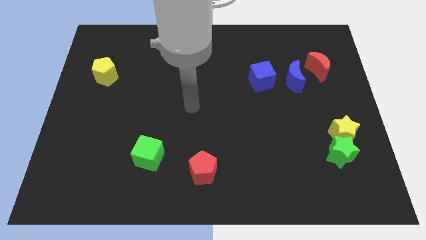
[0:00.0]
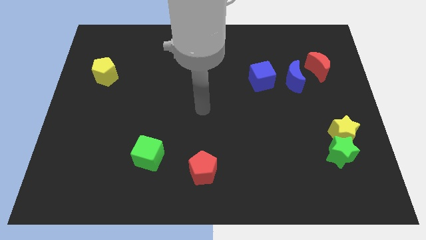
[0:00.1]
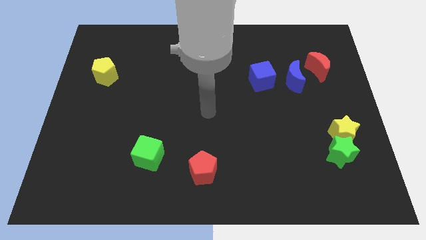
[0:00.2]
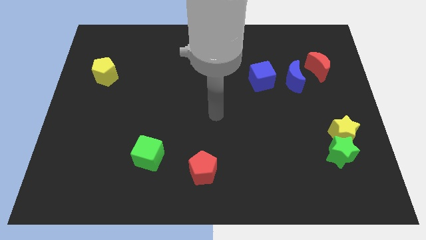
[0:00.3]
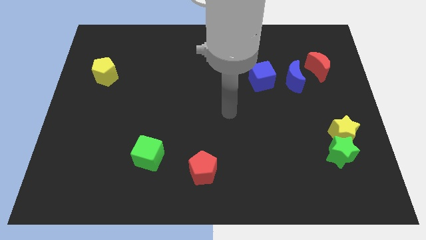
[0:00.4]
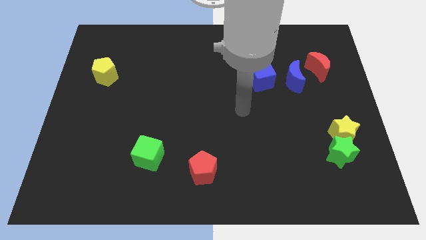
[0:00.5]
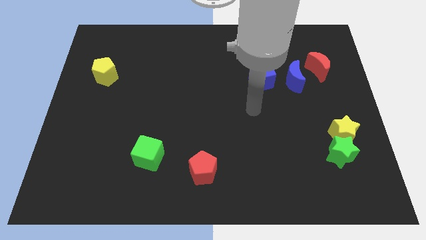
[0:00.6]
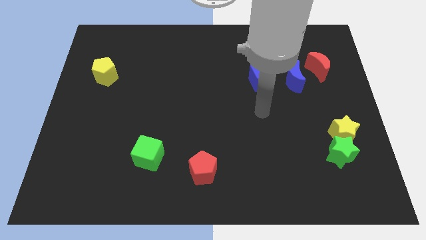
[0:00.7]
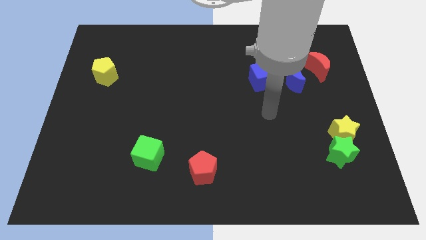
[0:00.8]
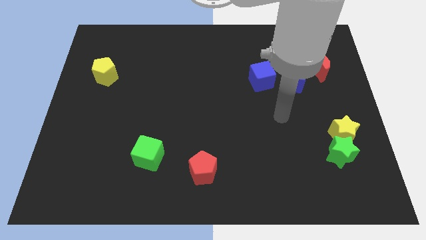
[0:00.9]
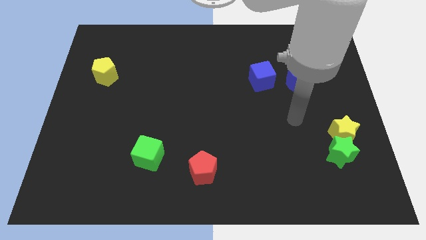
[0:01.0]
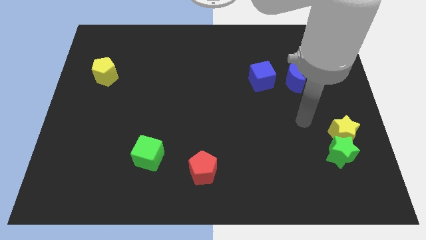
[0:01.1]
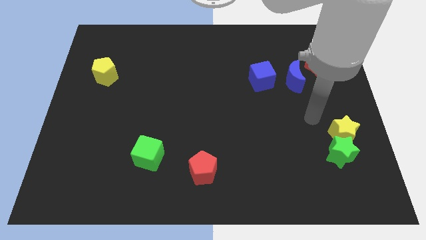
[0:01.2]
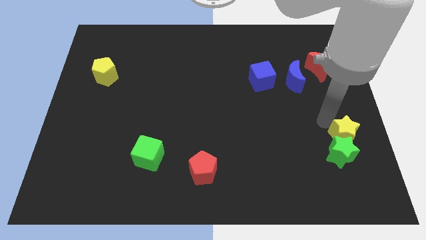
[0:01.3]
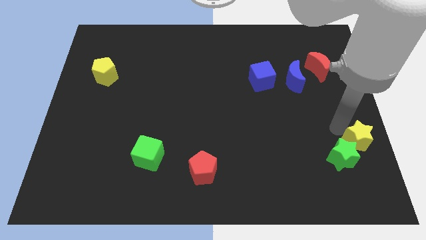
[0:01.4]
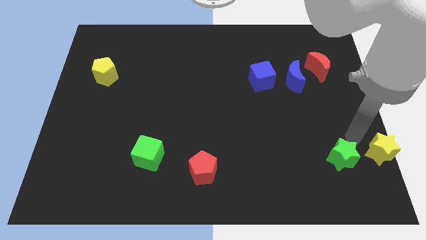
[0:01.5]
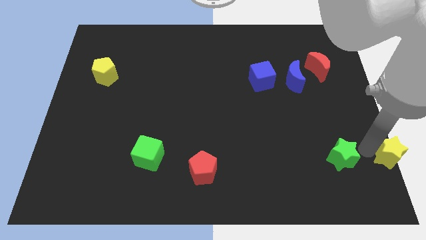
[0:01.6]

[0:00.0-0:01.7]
separate the green star from the yellow star

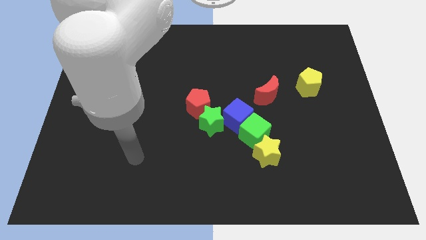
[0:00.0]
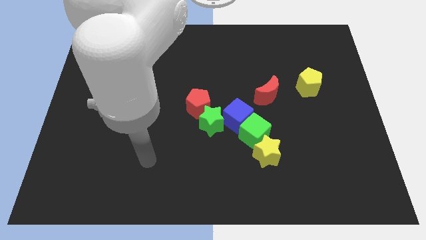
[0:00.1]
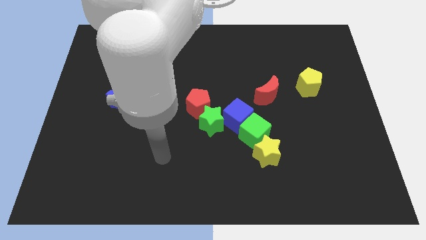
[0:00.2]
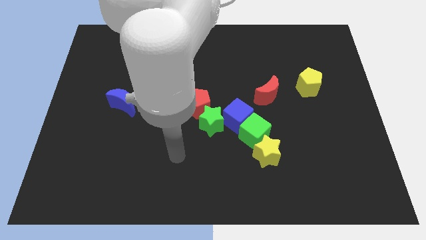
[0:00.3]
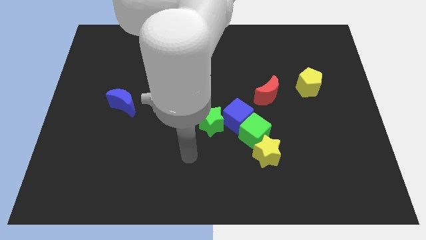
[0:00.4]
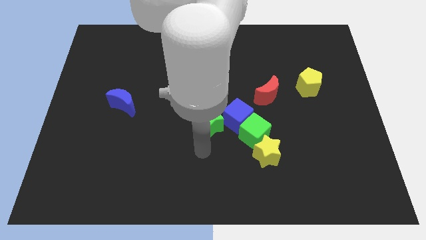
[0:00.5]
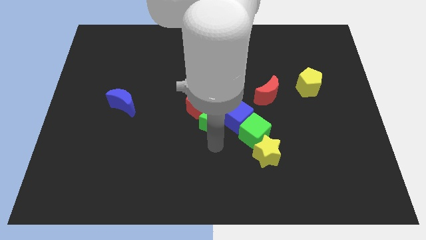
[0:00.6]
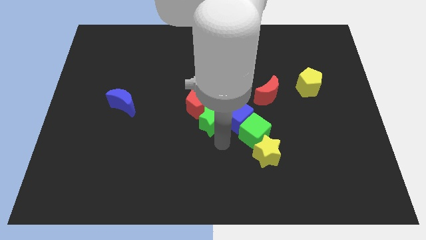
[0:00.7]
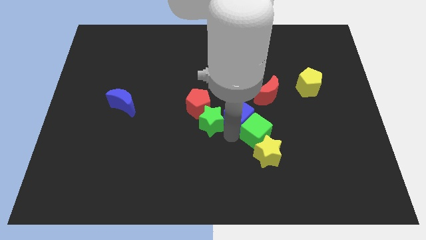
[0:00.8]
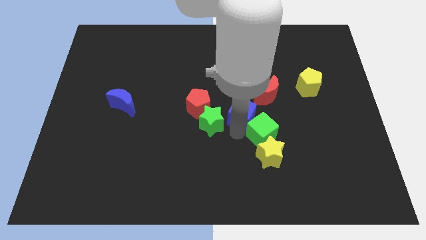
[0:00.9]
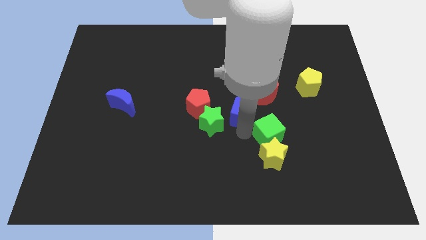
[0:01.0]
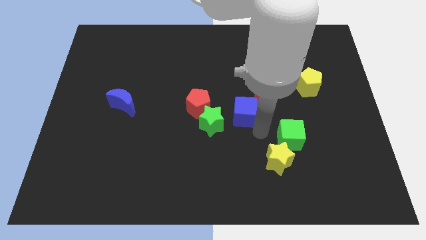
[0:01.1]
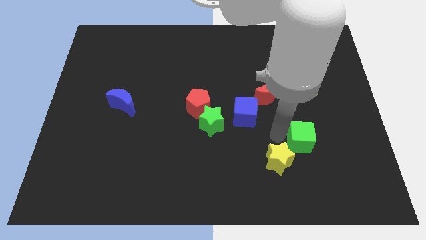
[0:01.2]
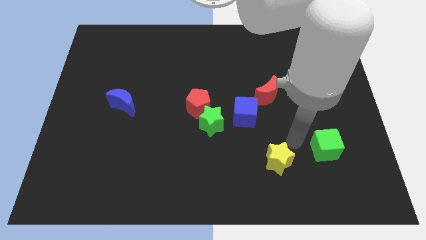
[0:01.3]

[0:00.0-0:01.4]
pull the yellow star apart from the green cube

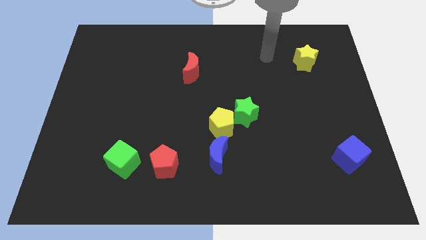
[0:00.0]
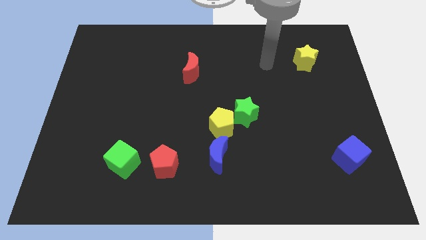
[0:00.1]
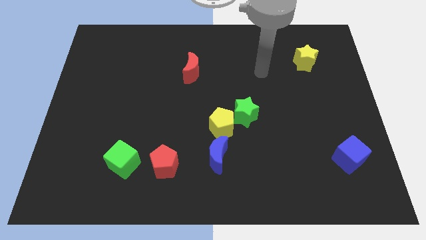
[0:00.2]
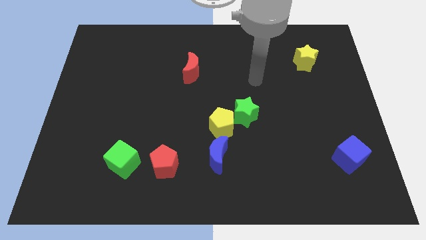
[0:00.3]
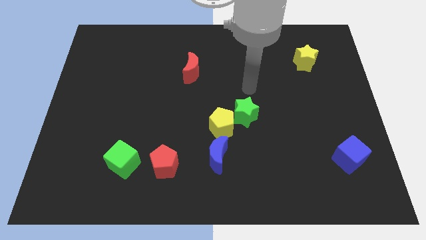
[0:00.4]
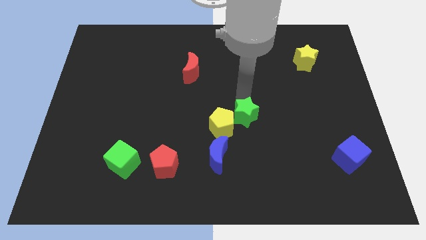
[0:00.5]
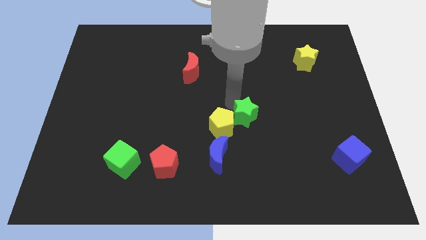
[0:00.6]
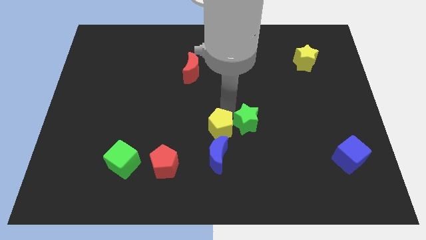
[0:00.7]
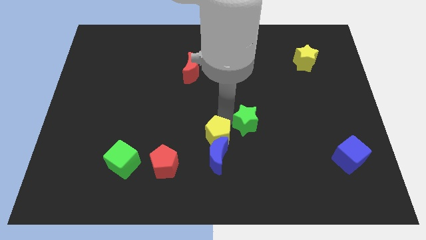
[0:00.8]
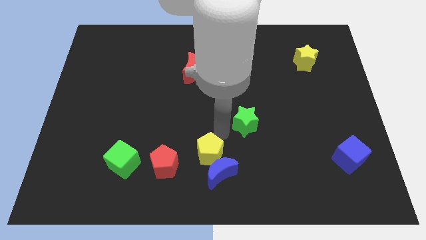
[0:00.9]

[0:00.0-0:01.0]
move the green star away from the yellow pentagon

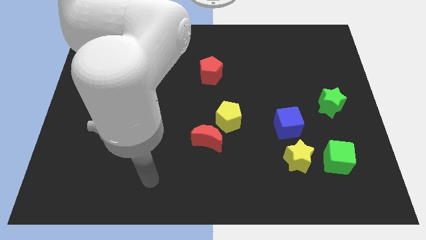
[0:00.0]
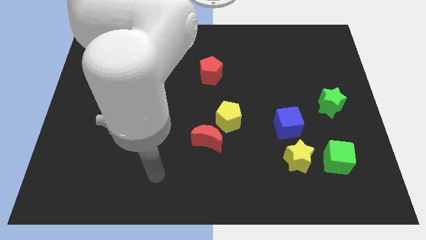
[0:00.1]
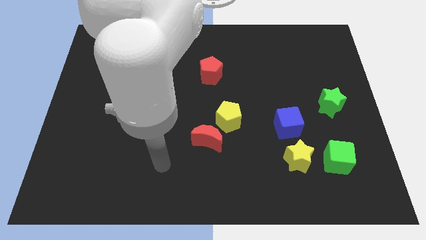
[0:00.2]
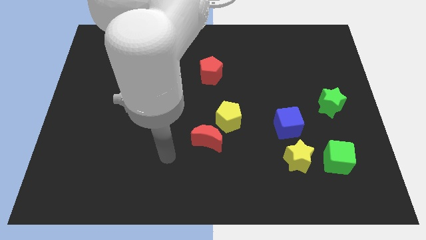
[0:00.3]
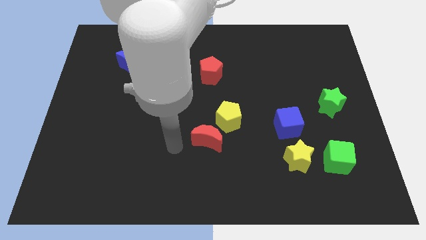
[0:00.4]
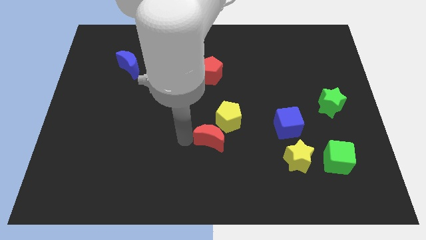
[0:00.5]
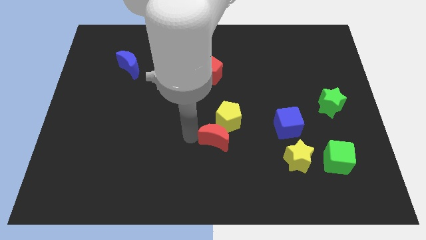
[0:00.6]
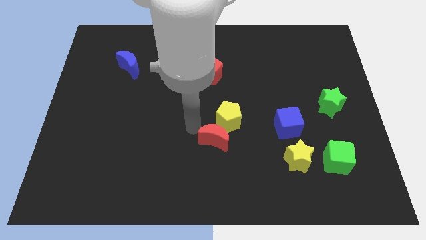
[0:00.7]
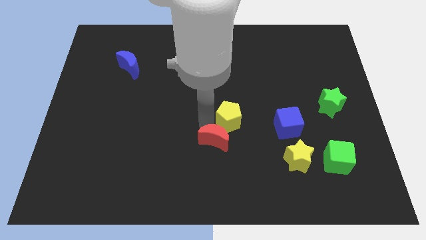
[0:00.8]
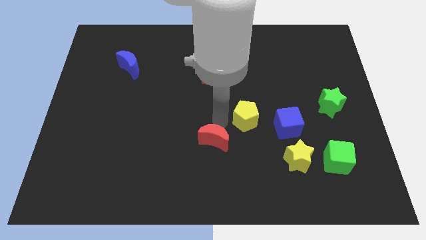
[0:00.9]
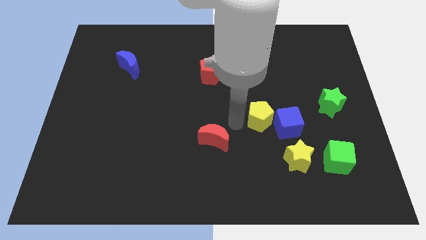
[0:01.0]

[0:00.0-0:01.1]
move the red moon away from the yellow pentagon

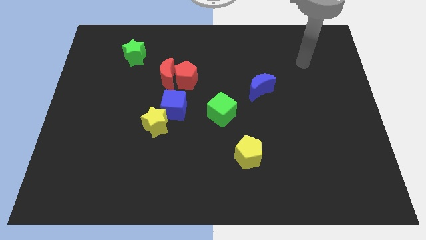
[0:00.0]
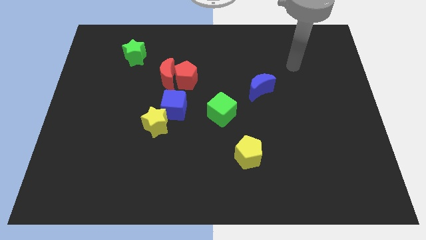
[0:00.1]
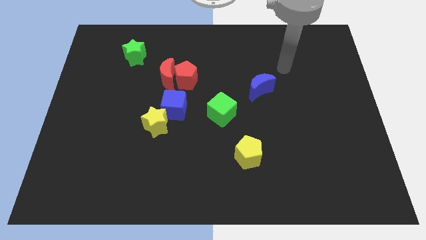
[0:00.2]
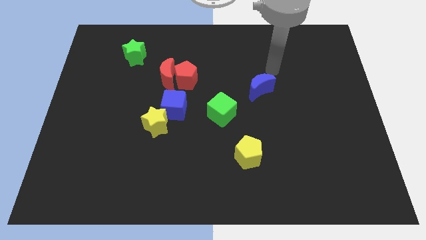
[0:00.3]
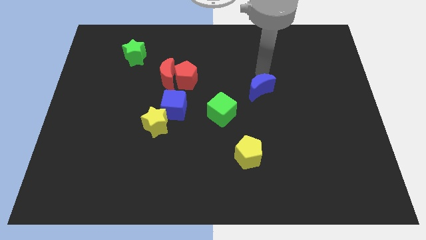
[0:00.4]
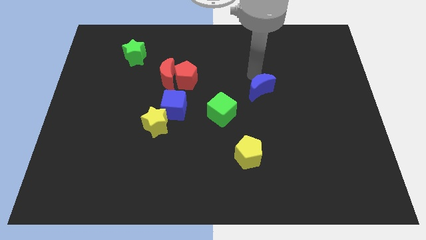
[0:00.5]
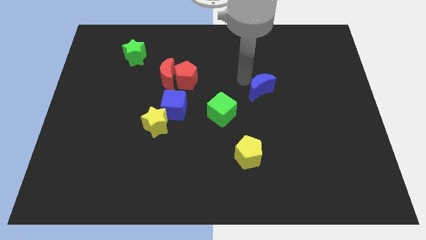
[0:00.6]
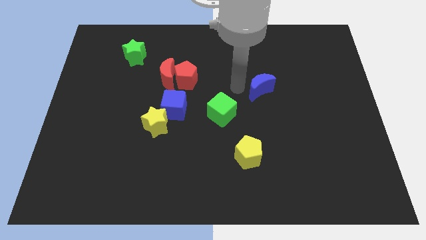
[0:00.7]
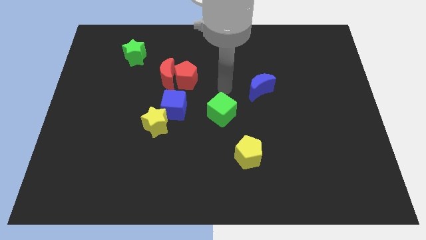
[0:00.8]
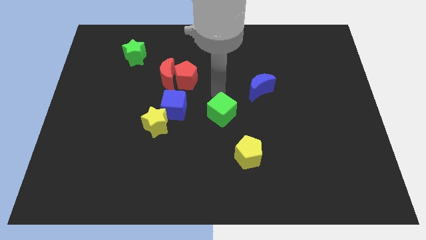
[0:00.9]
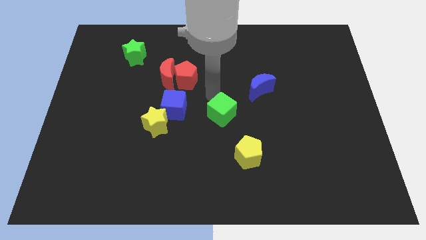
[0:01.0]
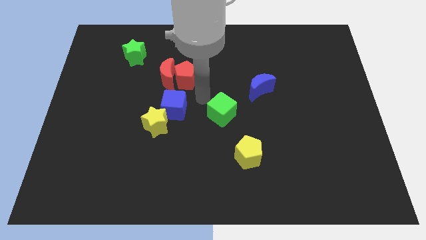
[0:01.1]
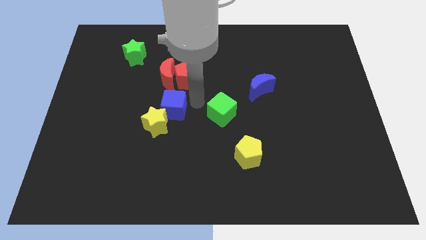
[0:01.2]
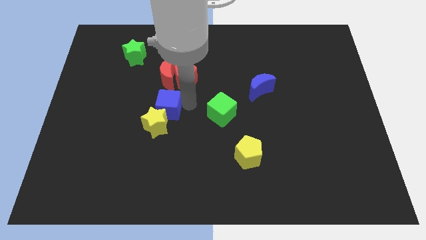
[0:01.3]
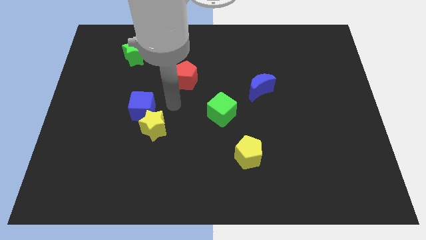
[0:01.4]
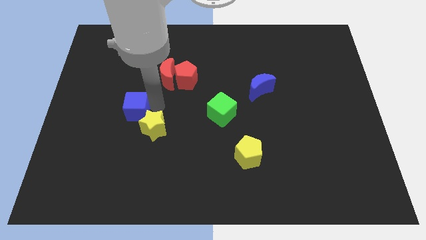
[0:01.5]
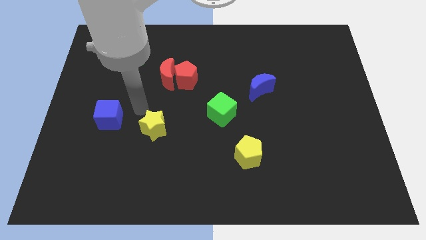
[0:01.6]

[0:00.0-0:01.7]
move the yellow star away from the blue cube

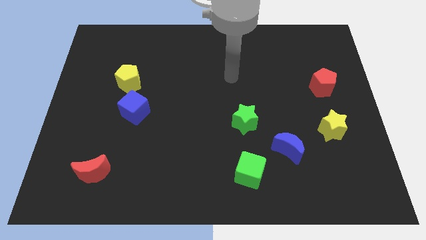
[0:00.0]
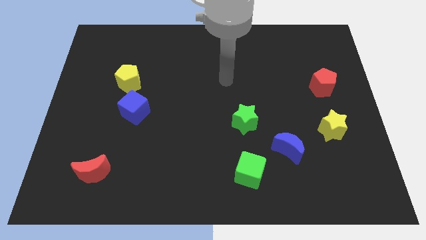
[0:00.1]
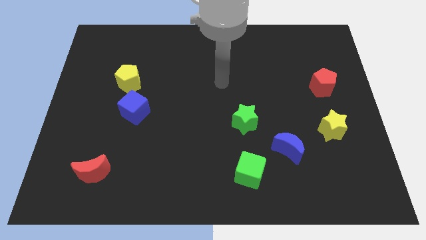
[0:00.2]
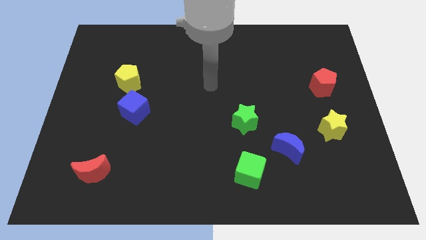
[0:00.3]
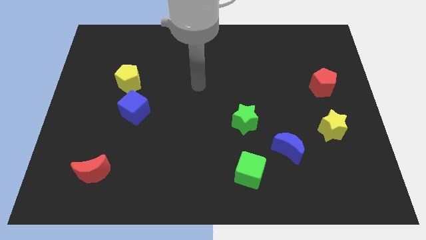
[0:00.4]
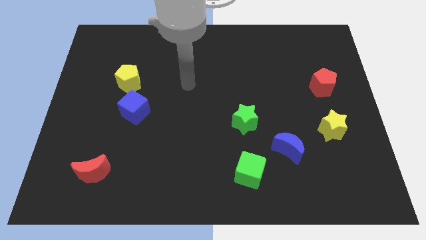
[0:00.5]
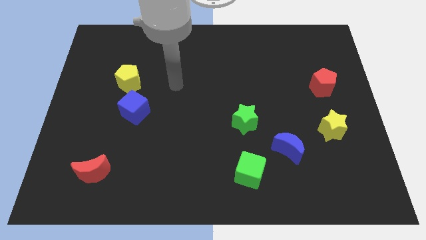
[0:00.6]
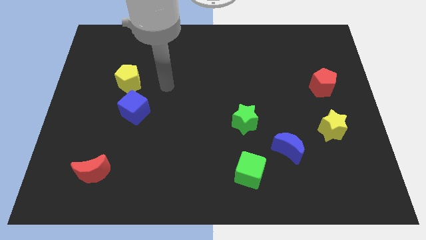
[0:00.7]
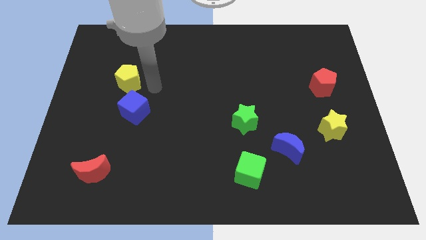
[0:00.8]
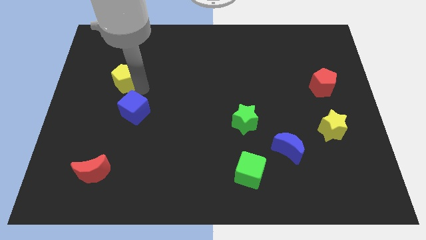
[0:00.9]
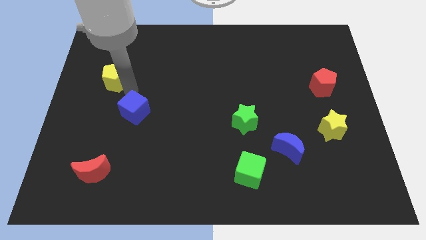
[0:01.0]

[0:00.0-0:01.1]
pull the blue cube apart from the yellow pentagon

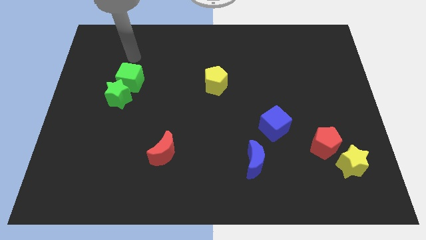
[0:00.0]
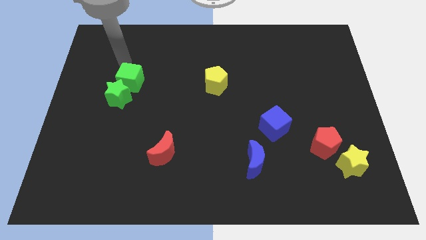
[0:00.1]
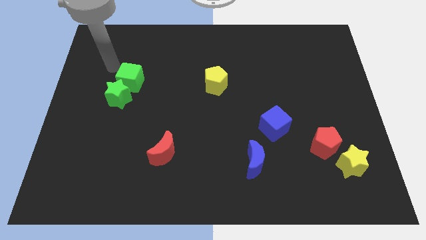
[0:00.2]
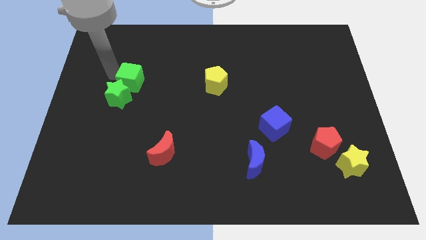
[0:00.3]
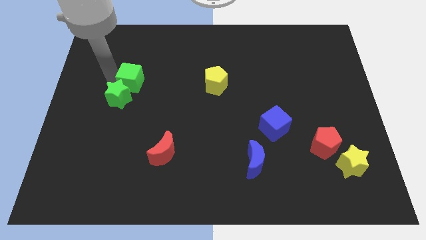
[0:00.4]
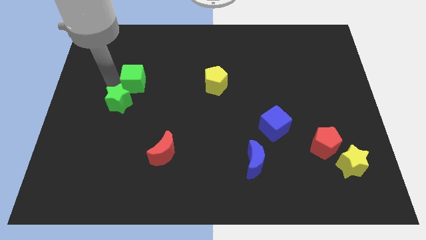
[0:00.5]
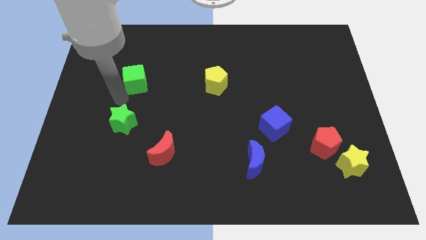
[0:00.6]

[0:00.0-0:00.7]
move the green cube away from the green star

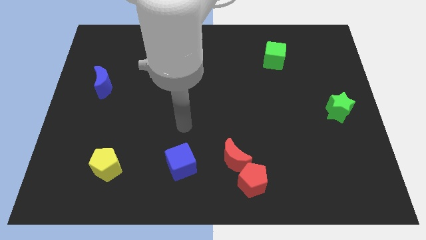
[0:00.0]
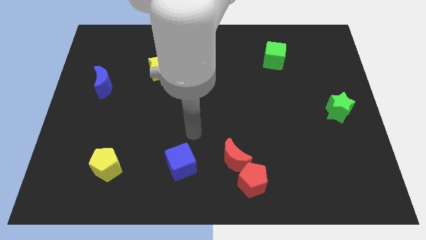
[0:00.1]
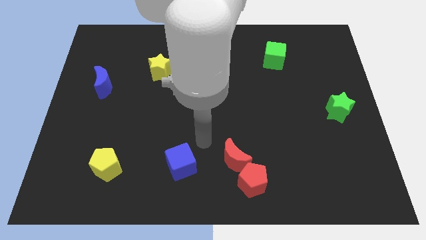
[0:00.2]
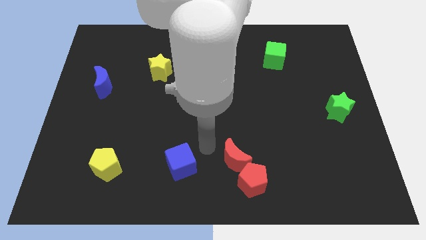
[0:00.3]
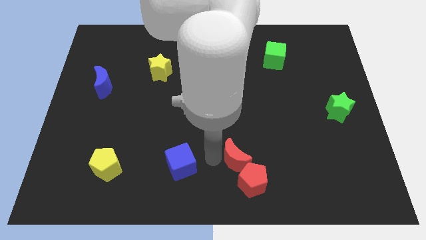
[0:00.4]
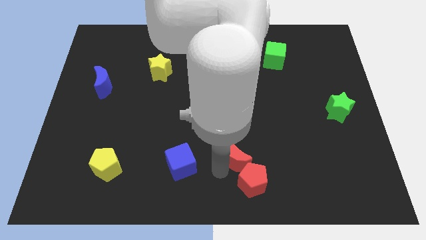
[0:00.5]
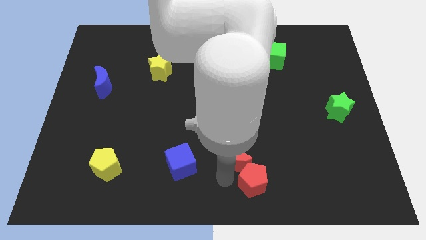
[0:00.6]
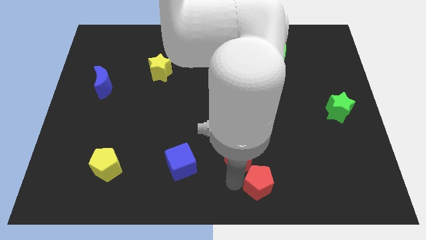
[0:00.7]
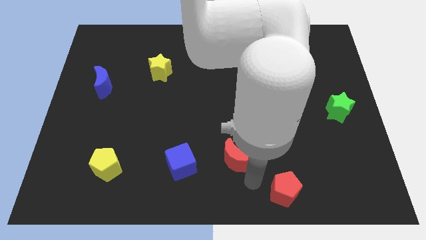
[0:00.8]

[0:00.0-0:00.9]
move the red moon away from the red pentagon
